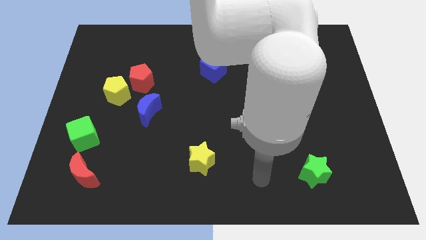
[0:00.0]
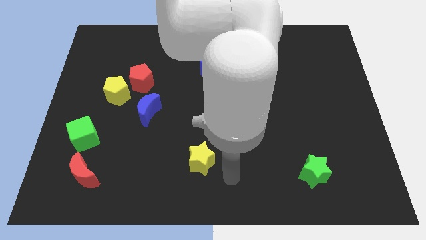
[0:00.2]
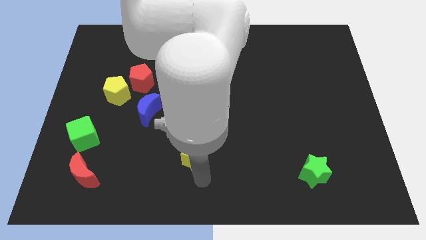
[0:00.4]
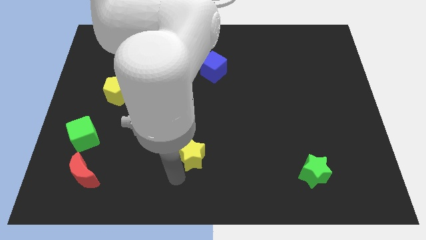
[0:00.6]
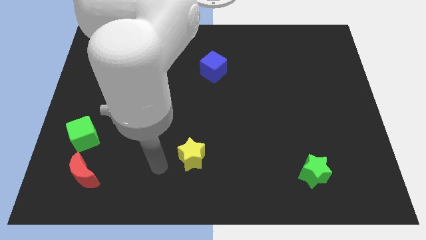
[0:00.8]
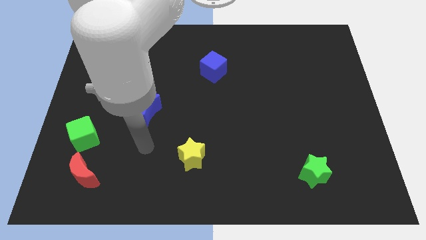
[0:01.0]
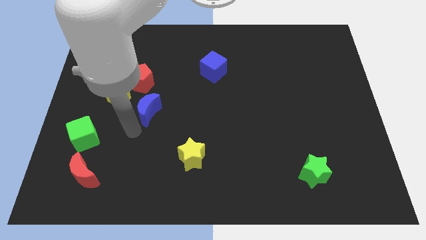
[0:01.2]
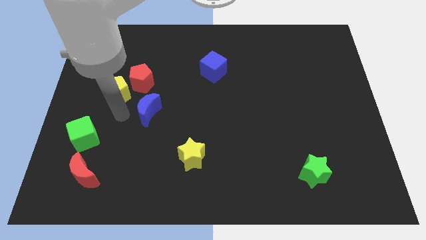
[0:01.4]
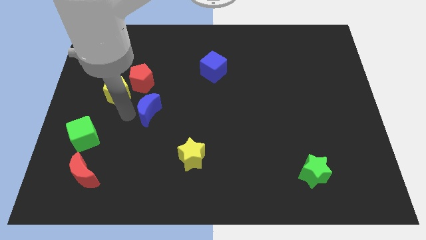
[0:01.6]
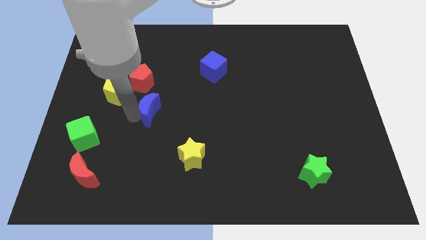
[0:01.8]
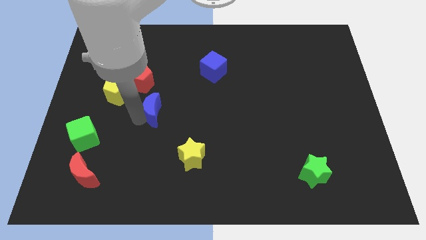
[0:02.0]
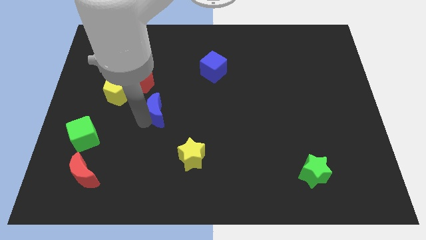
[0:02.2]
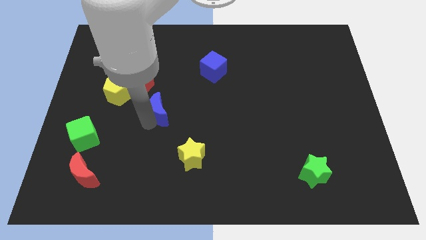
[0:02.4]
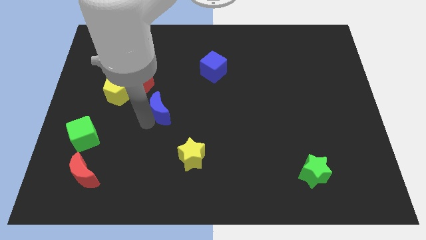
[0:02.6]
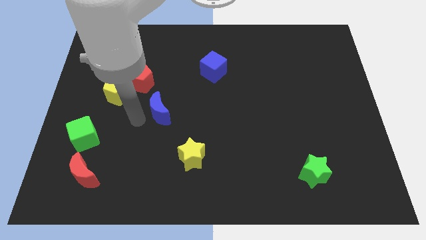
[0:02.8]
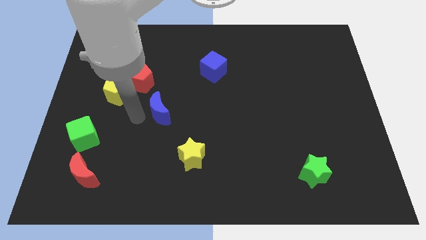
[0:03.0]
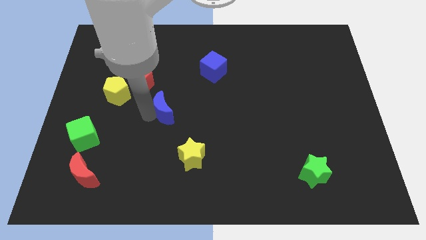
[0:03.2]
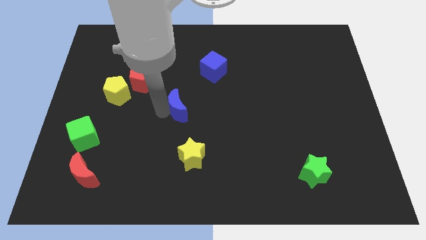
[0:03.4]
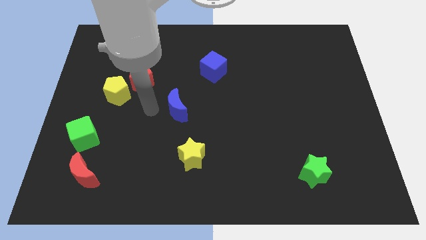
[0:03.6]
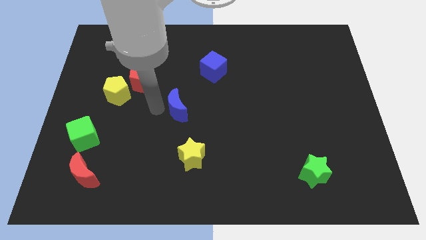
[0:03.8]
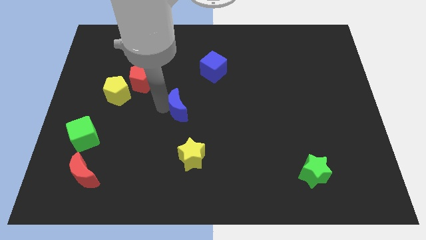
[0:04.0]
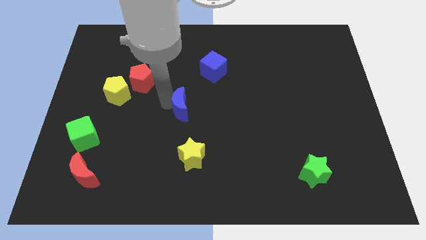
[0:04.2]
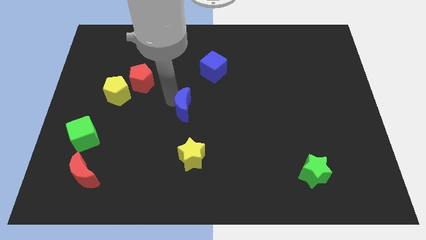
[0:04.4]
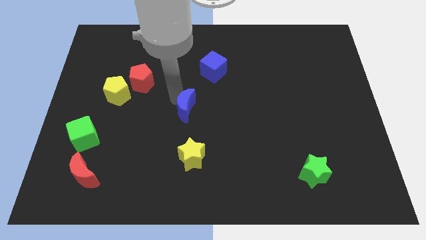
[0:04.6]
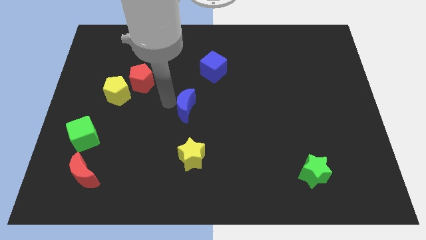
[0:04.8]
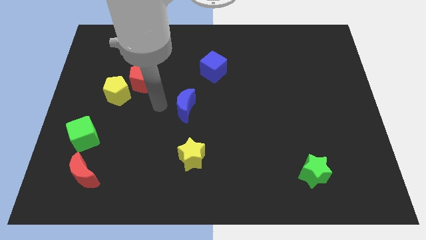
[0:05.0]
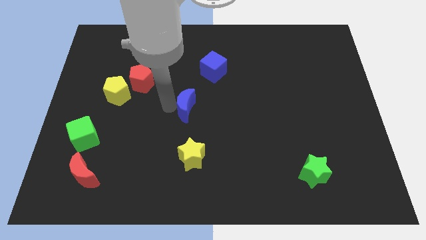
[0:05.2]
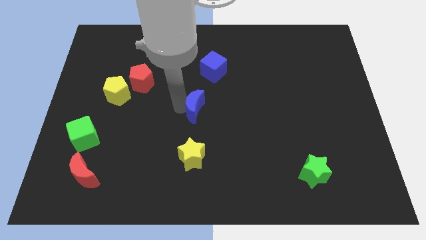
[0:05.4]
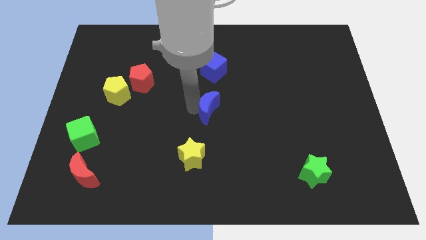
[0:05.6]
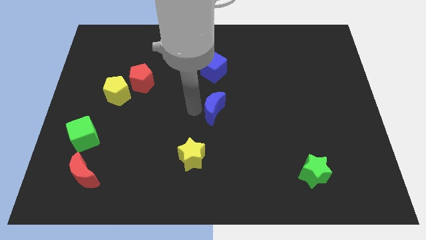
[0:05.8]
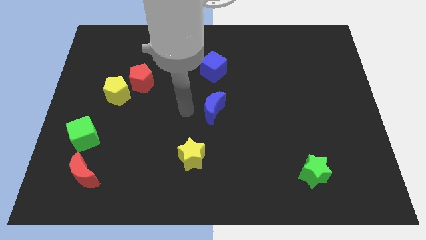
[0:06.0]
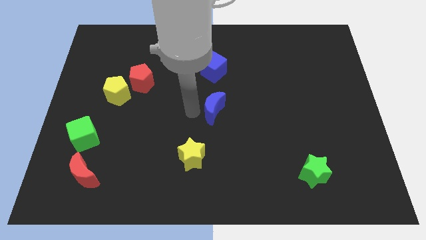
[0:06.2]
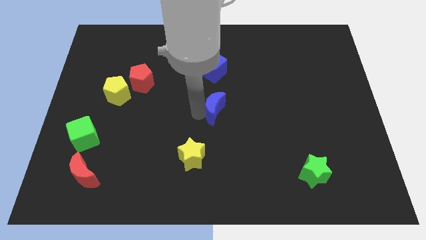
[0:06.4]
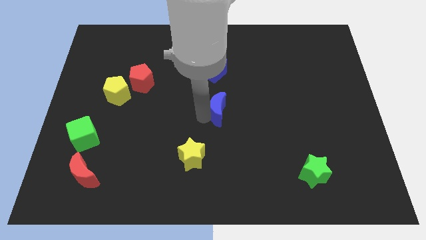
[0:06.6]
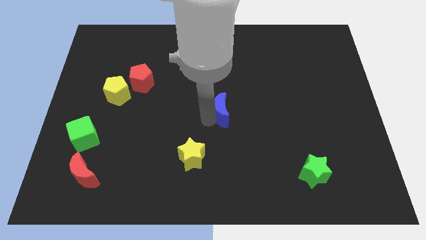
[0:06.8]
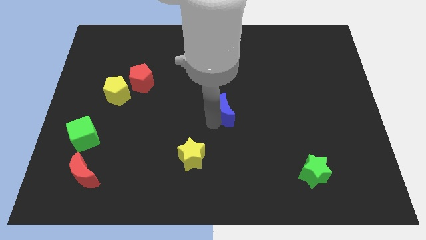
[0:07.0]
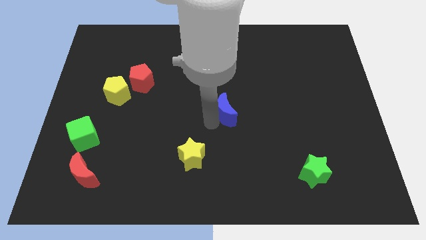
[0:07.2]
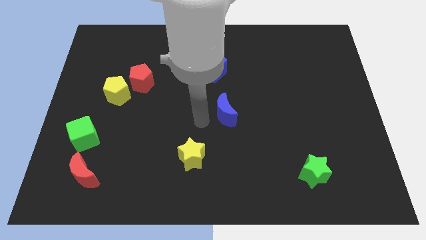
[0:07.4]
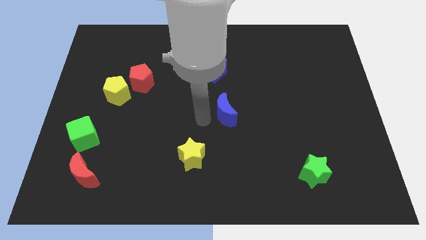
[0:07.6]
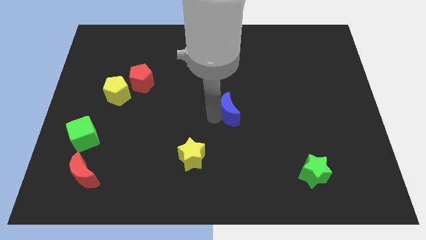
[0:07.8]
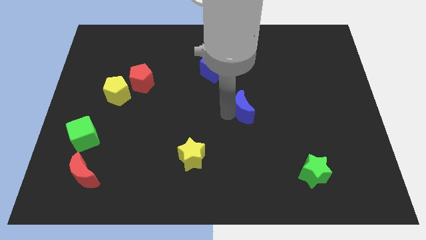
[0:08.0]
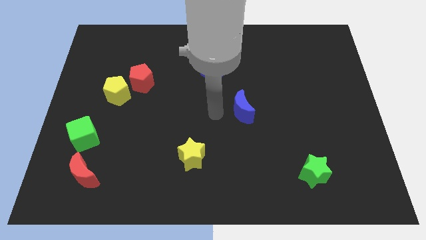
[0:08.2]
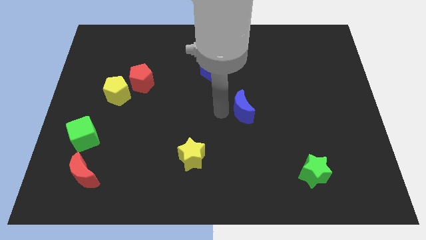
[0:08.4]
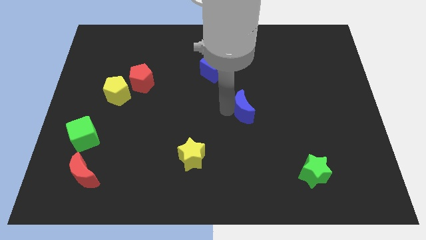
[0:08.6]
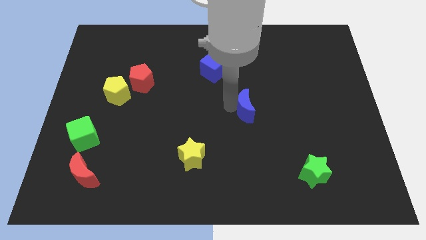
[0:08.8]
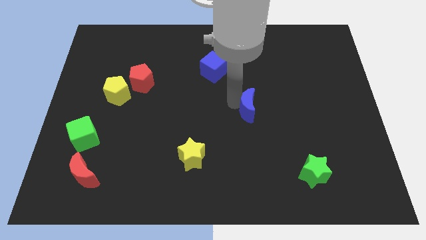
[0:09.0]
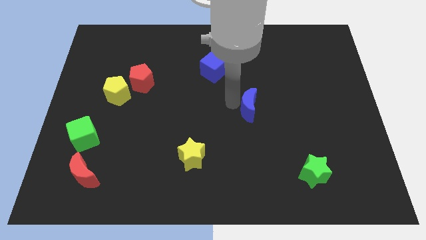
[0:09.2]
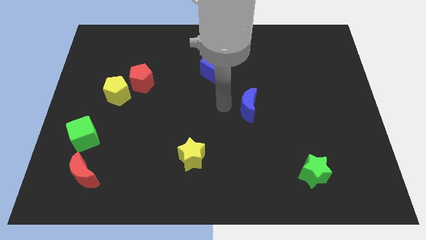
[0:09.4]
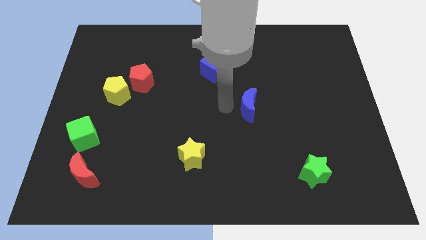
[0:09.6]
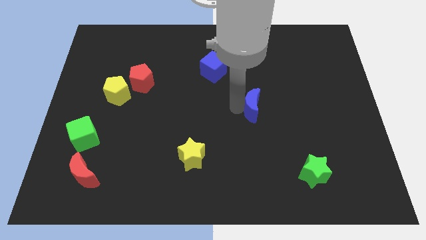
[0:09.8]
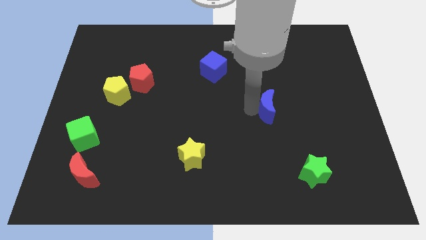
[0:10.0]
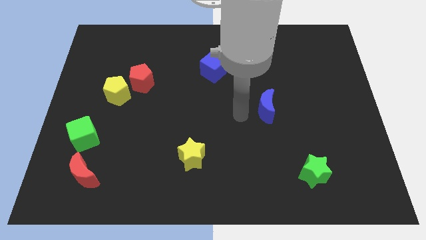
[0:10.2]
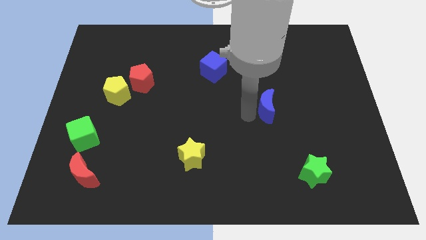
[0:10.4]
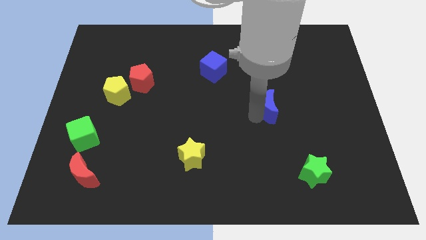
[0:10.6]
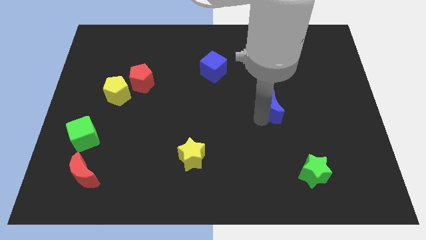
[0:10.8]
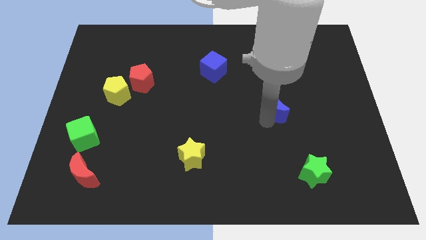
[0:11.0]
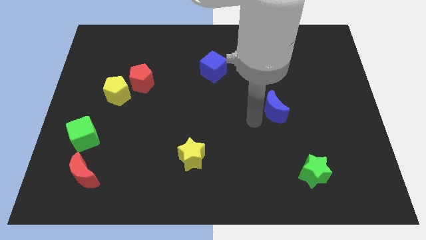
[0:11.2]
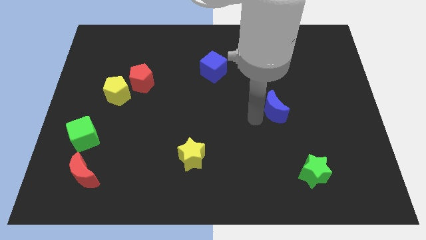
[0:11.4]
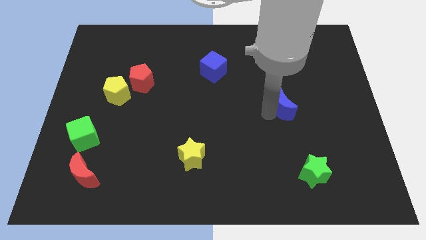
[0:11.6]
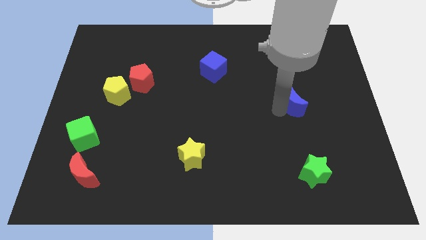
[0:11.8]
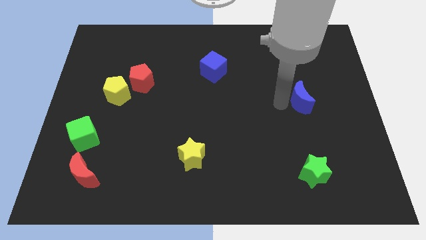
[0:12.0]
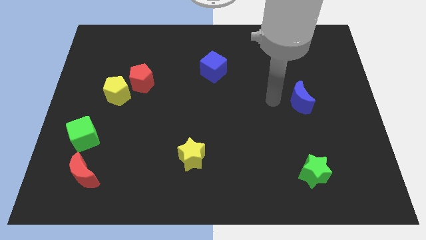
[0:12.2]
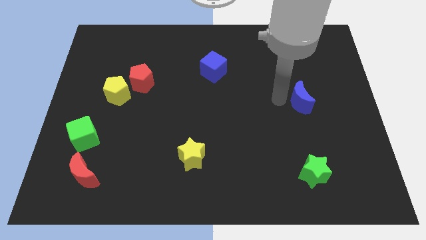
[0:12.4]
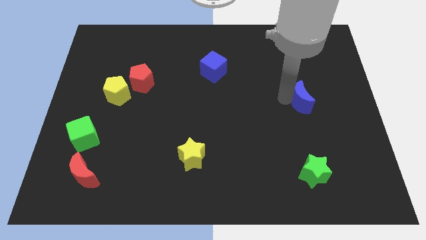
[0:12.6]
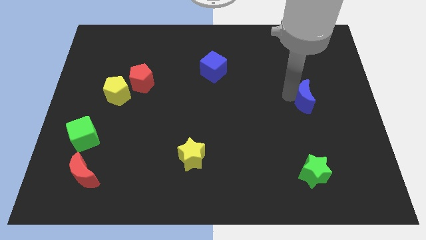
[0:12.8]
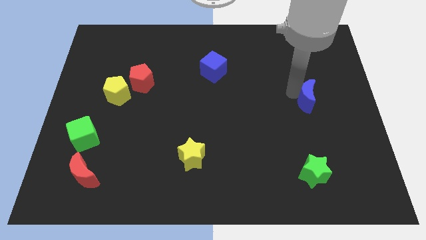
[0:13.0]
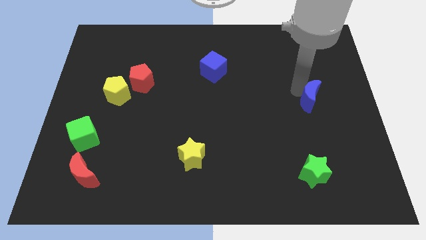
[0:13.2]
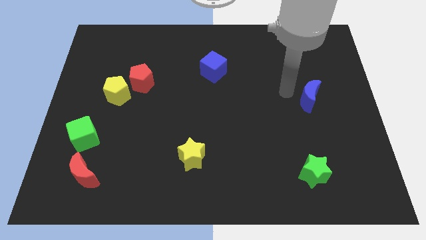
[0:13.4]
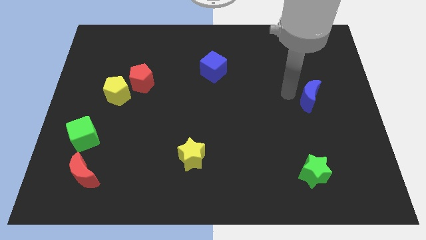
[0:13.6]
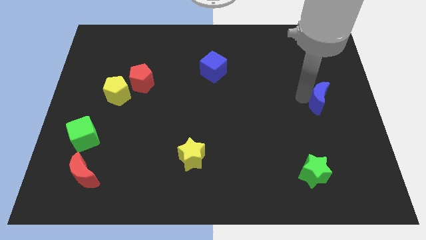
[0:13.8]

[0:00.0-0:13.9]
move the blue moon to the right side of the board

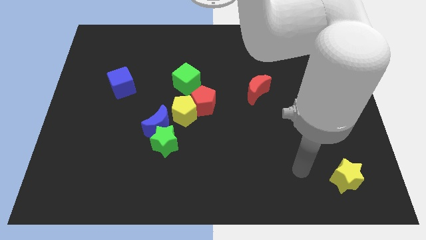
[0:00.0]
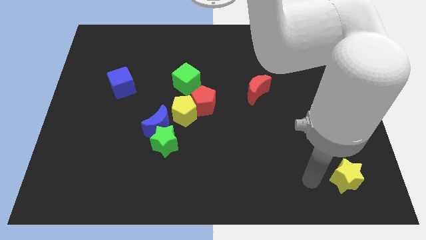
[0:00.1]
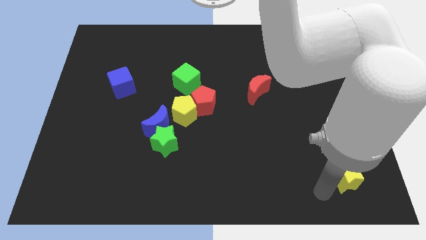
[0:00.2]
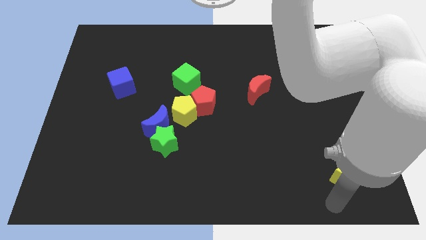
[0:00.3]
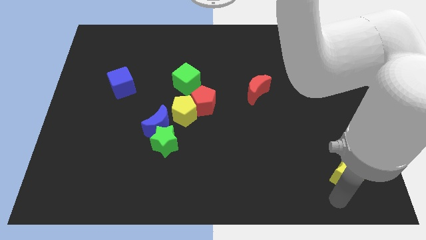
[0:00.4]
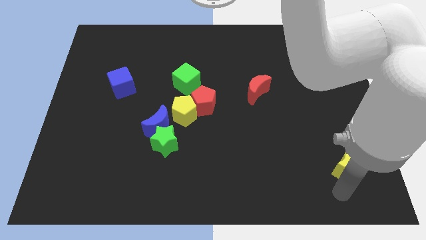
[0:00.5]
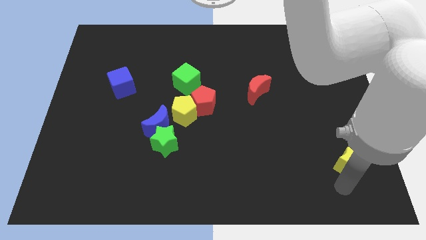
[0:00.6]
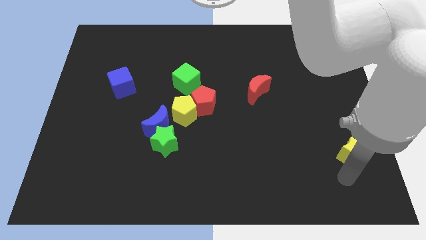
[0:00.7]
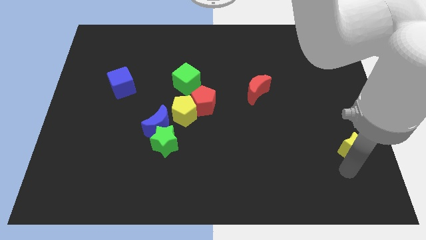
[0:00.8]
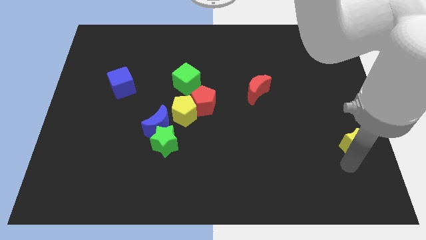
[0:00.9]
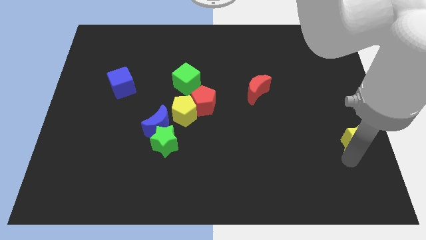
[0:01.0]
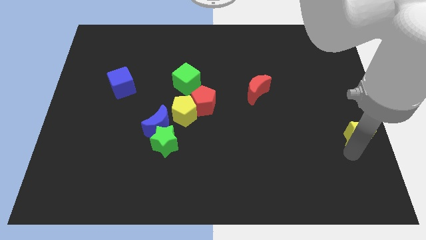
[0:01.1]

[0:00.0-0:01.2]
push the yellow star to the right side
